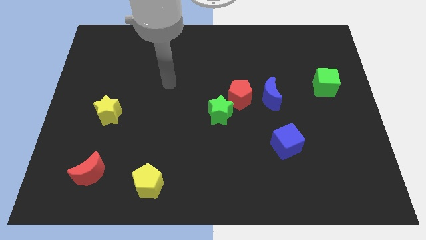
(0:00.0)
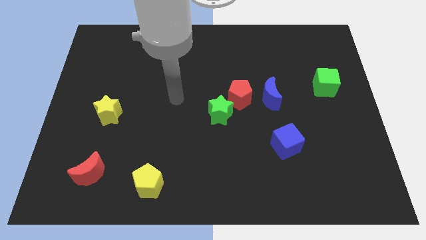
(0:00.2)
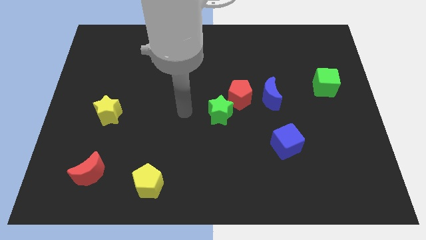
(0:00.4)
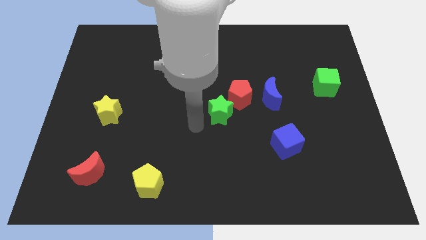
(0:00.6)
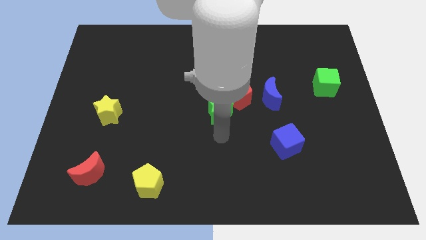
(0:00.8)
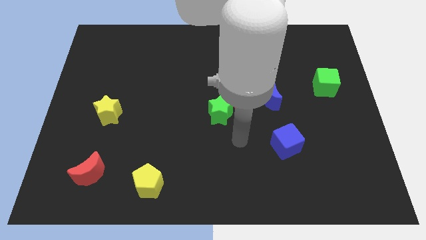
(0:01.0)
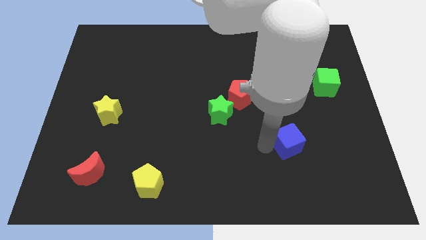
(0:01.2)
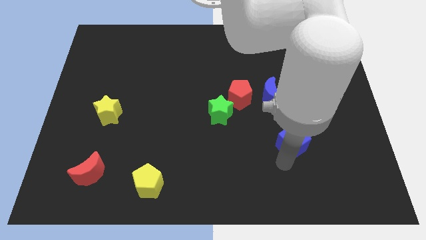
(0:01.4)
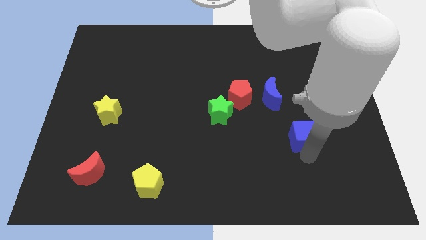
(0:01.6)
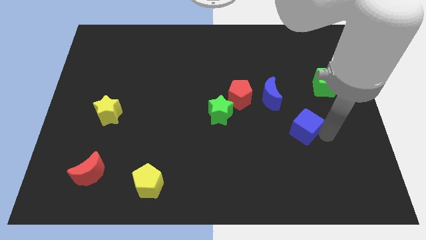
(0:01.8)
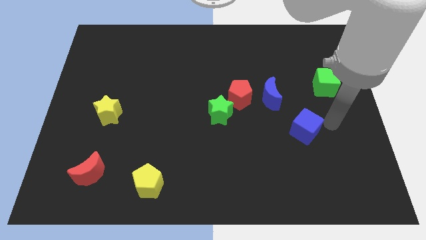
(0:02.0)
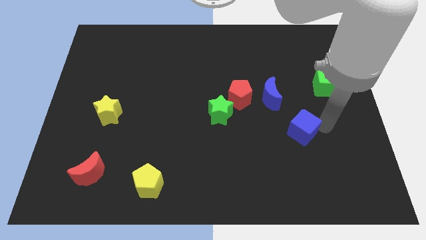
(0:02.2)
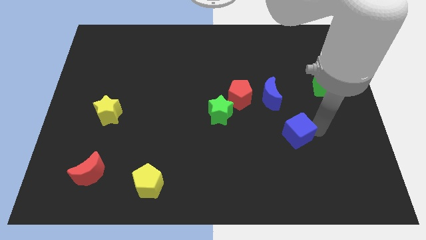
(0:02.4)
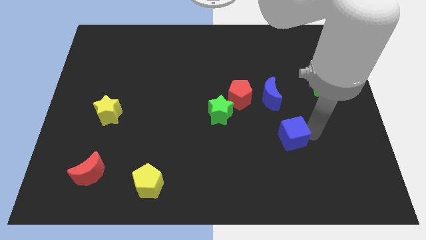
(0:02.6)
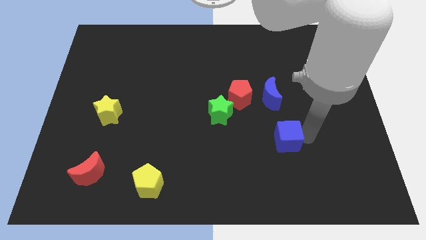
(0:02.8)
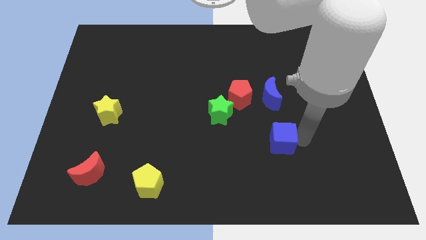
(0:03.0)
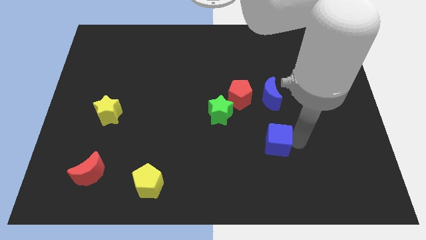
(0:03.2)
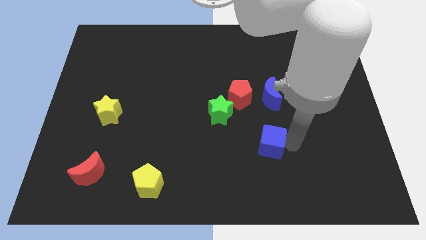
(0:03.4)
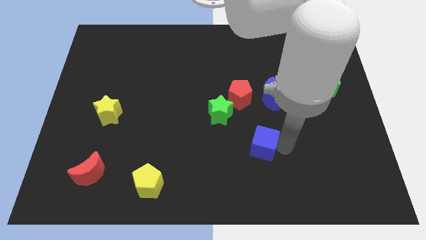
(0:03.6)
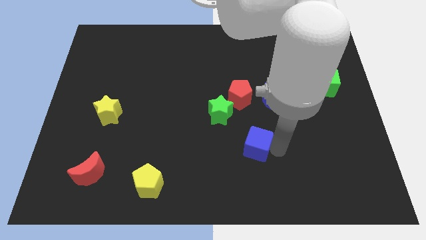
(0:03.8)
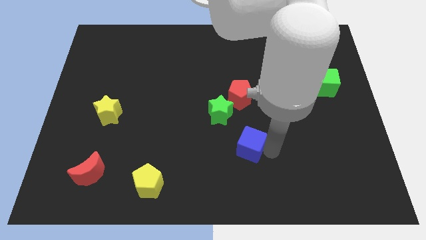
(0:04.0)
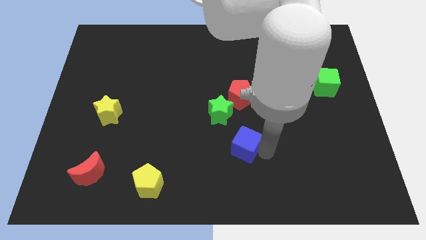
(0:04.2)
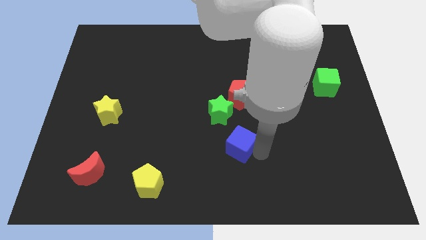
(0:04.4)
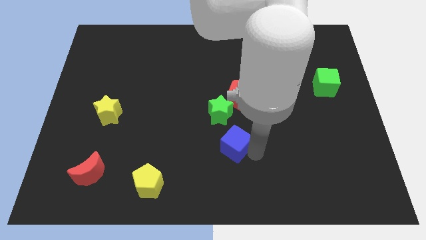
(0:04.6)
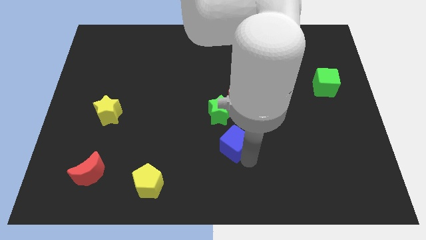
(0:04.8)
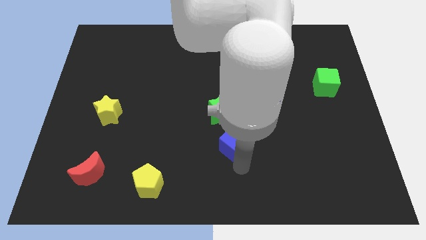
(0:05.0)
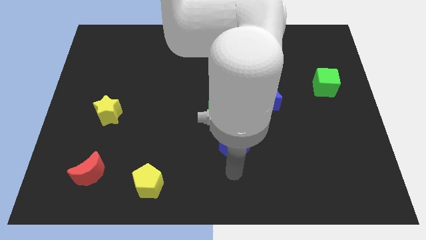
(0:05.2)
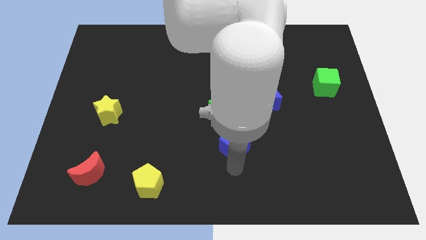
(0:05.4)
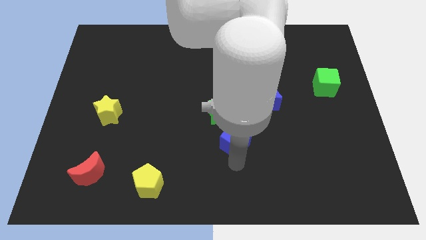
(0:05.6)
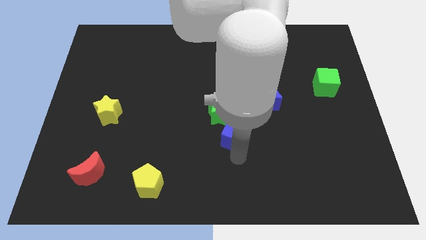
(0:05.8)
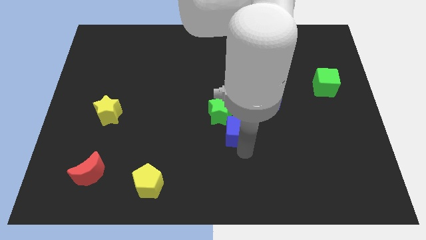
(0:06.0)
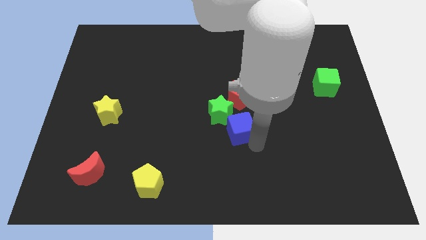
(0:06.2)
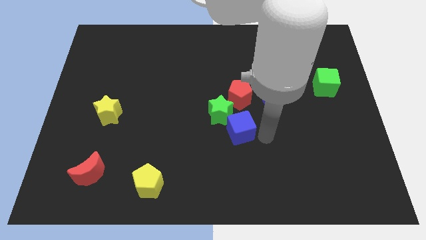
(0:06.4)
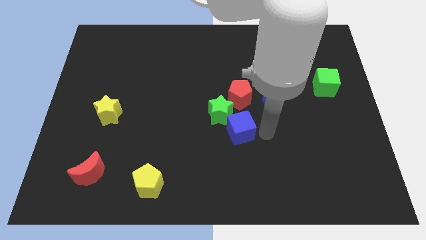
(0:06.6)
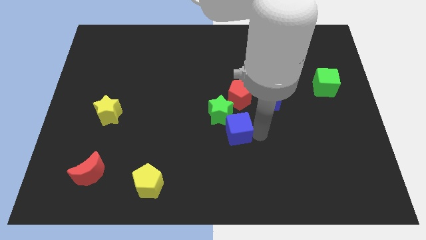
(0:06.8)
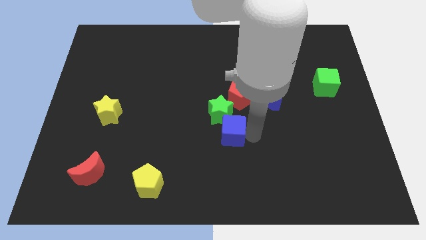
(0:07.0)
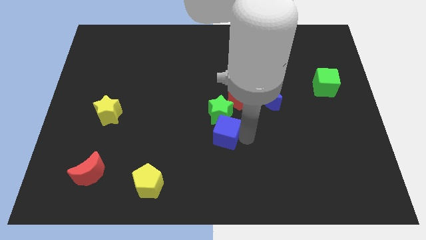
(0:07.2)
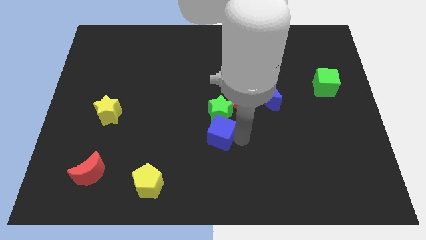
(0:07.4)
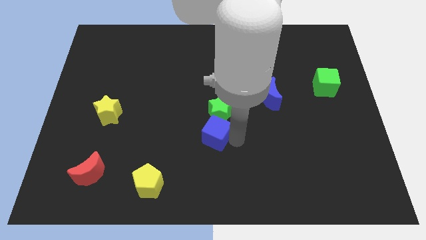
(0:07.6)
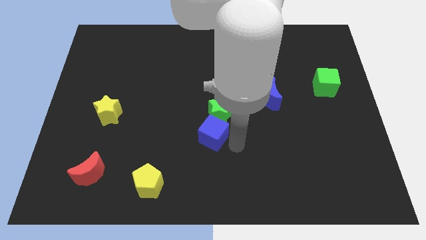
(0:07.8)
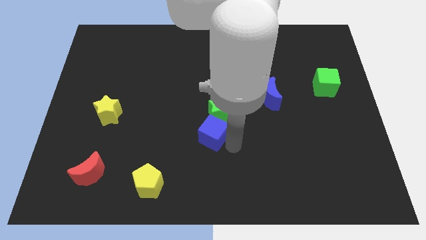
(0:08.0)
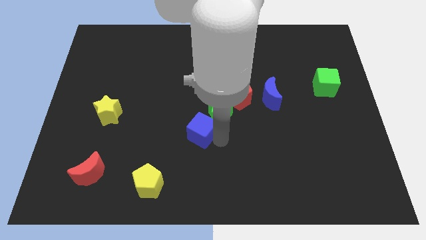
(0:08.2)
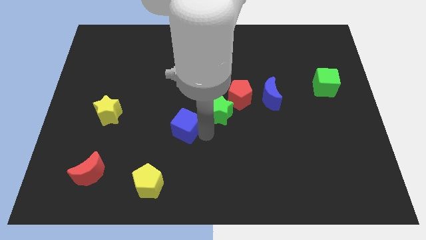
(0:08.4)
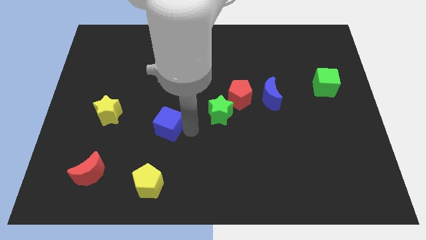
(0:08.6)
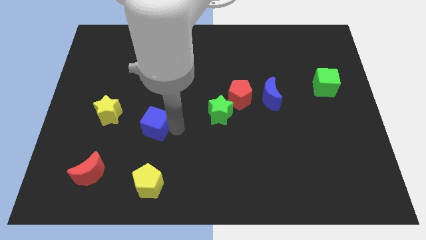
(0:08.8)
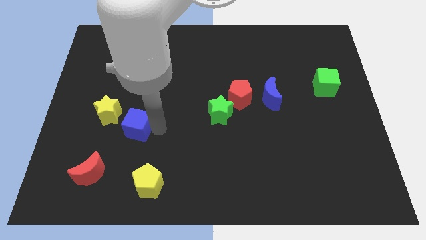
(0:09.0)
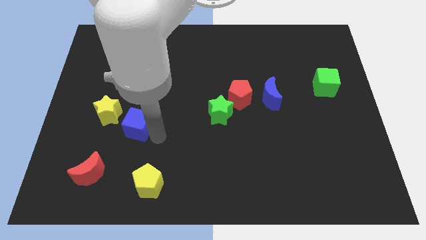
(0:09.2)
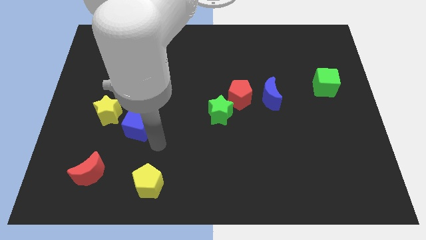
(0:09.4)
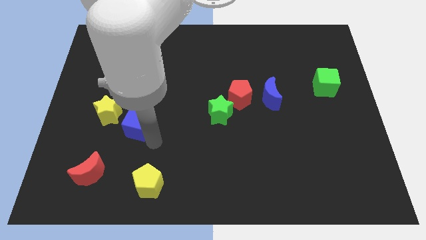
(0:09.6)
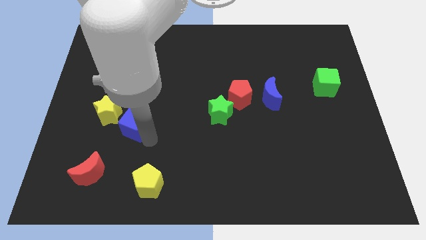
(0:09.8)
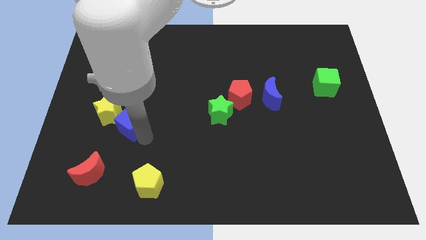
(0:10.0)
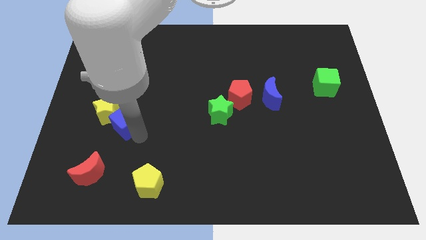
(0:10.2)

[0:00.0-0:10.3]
put the blue cube close to the yellow star

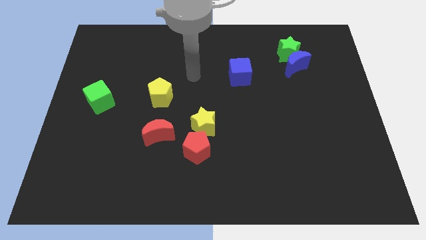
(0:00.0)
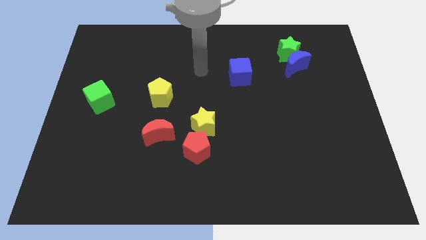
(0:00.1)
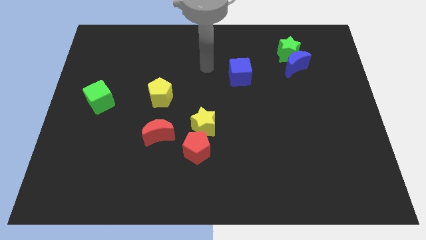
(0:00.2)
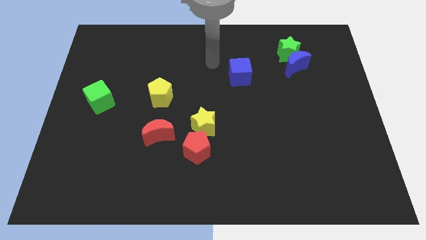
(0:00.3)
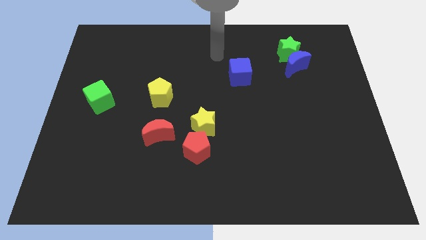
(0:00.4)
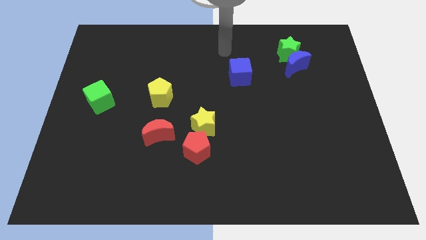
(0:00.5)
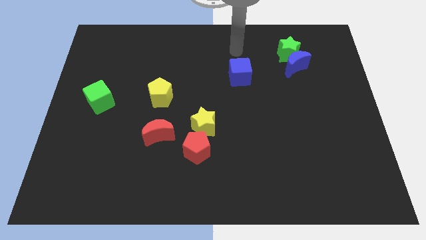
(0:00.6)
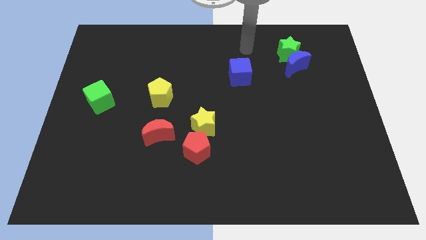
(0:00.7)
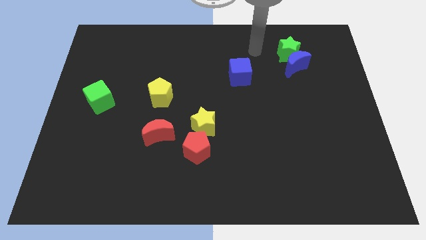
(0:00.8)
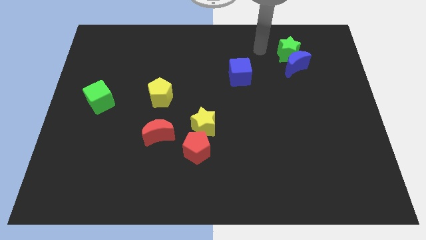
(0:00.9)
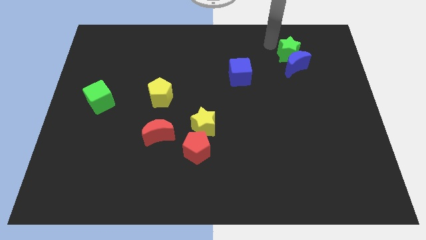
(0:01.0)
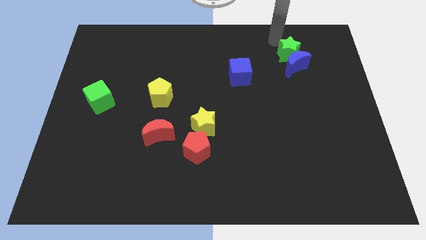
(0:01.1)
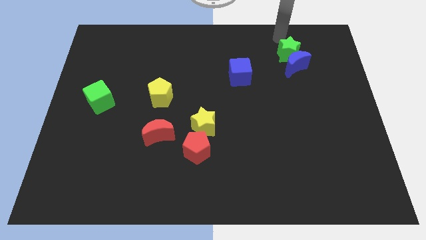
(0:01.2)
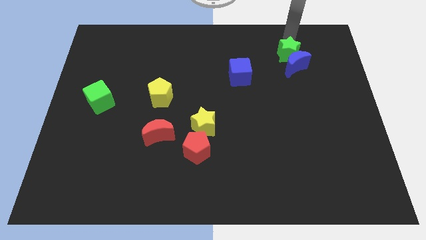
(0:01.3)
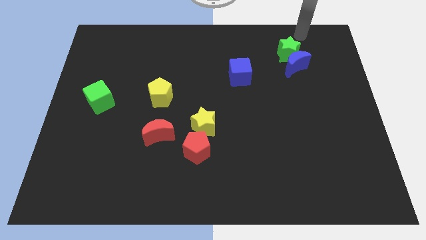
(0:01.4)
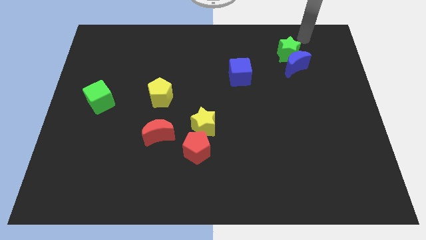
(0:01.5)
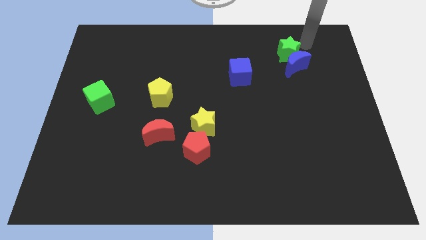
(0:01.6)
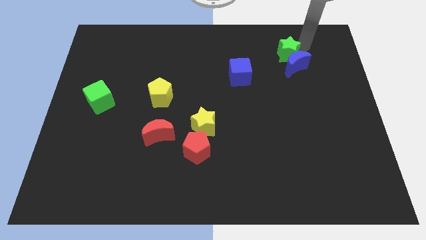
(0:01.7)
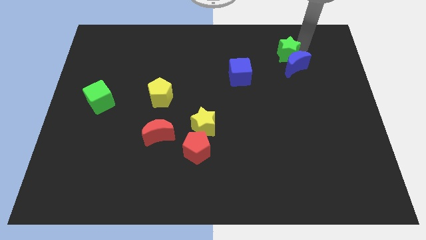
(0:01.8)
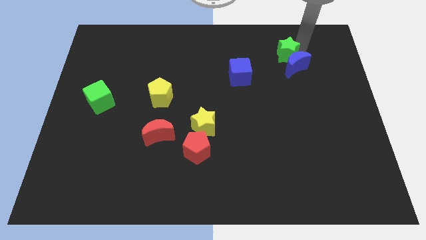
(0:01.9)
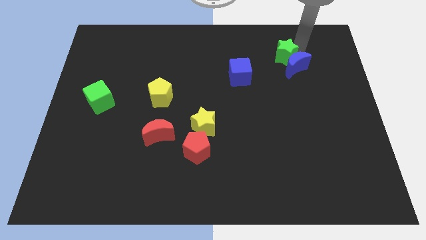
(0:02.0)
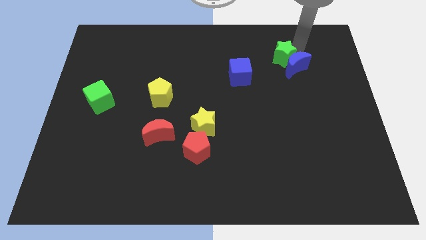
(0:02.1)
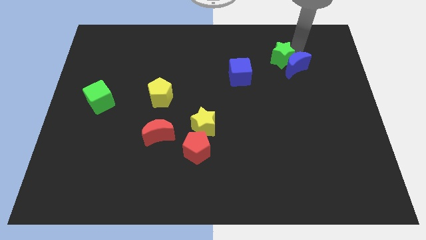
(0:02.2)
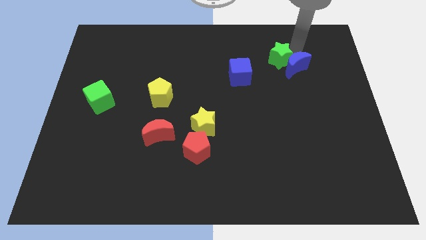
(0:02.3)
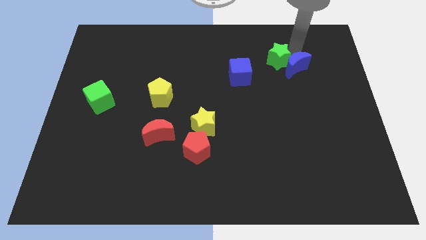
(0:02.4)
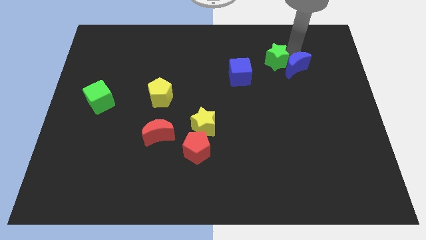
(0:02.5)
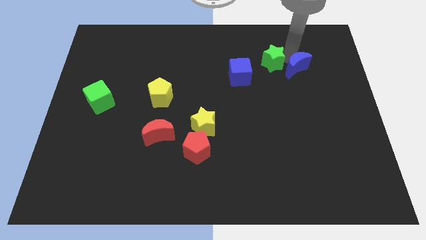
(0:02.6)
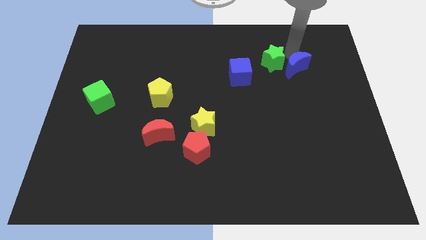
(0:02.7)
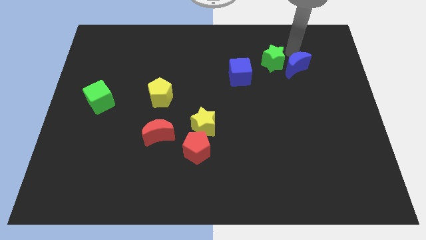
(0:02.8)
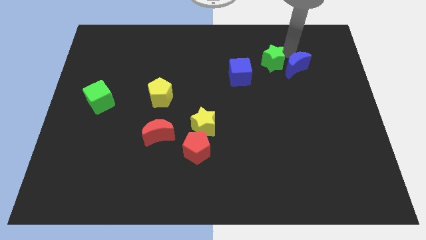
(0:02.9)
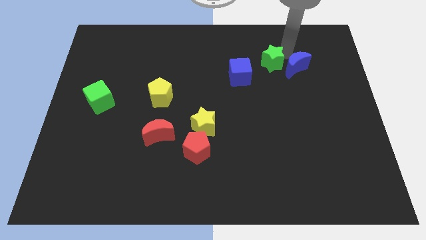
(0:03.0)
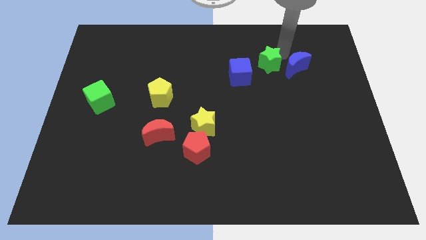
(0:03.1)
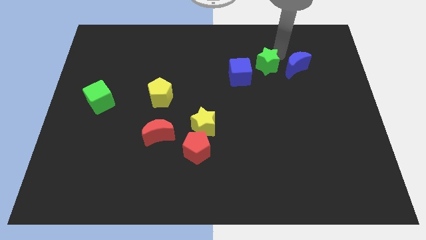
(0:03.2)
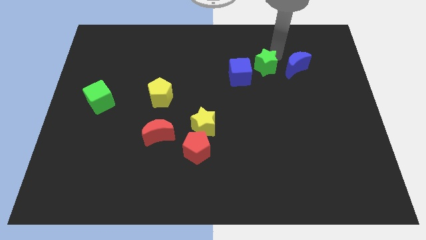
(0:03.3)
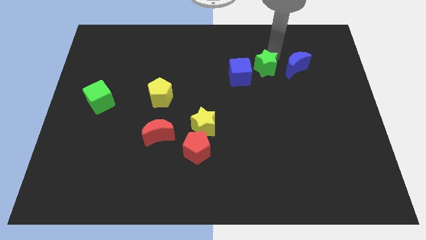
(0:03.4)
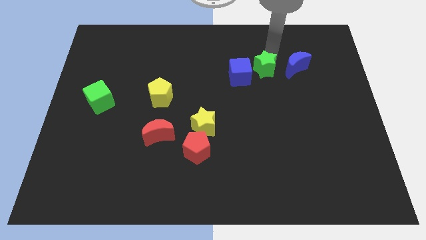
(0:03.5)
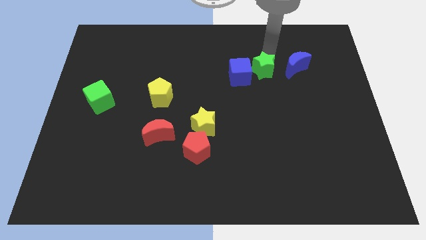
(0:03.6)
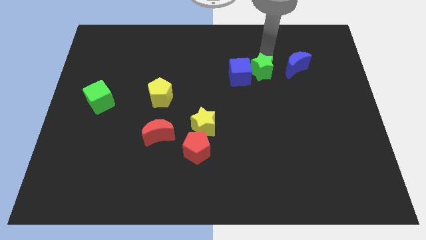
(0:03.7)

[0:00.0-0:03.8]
slide the green star close to the blue cube
